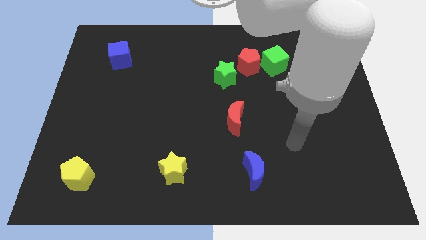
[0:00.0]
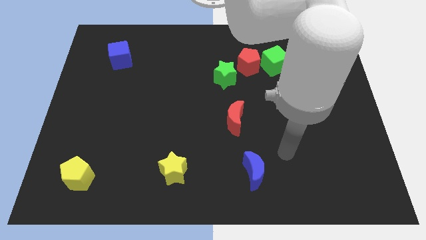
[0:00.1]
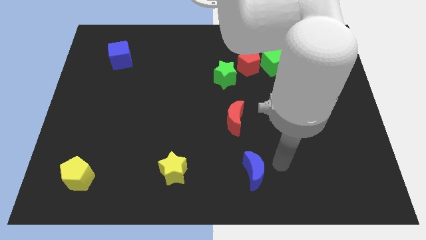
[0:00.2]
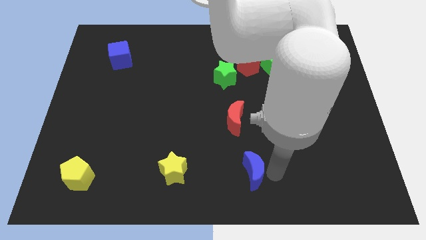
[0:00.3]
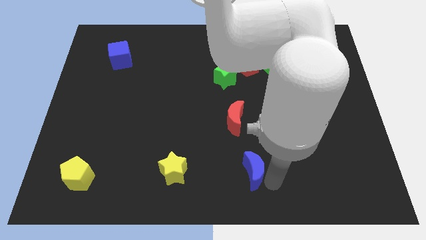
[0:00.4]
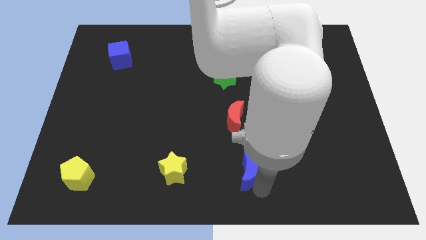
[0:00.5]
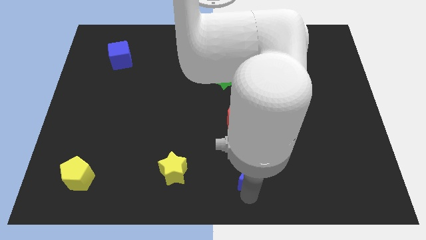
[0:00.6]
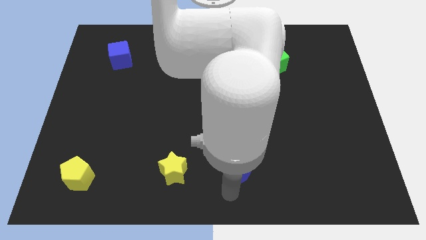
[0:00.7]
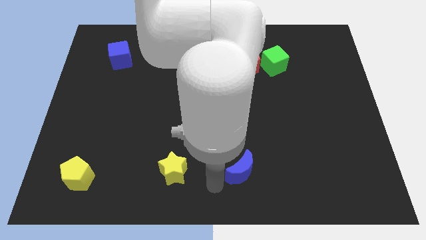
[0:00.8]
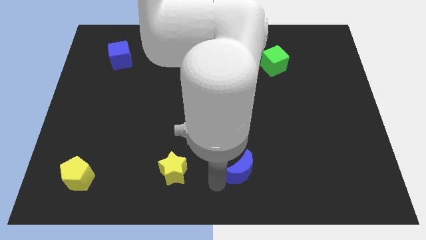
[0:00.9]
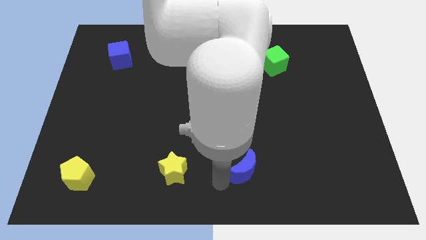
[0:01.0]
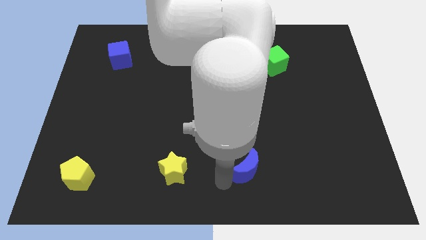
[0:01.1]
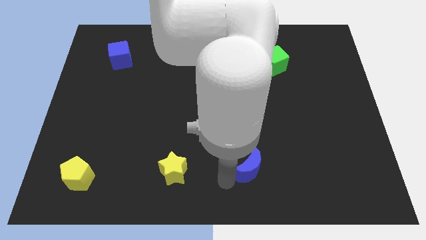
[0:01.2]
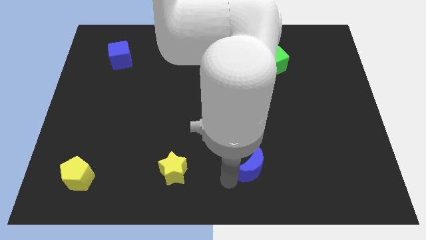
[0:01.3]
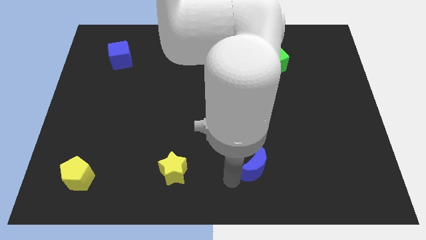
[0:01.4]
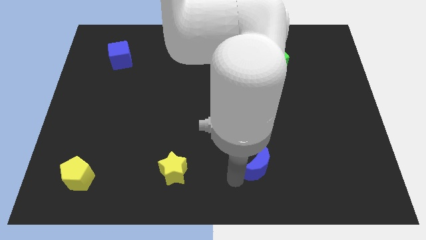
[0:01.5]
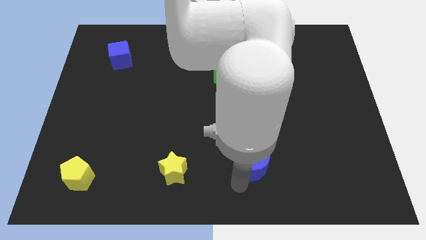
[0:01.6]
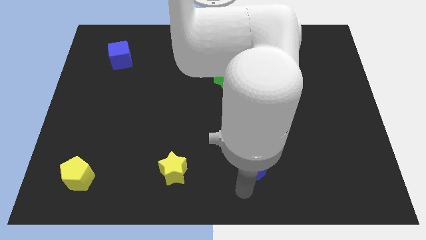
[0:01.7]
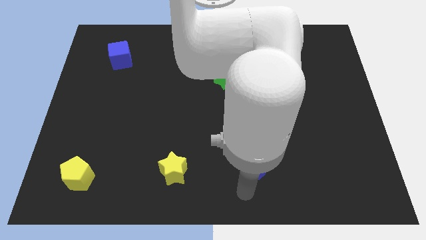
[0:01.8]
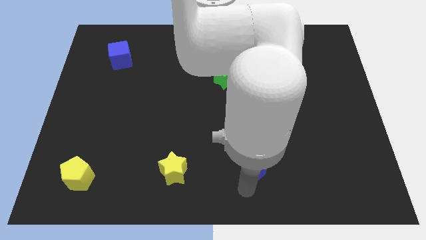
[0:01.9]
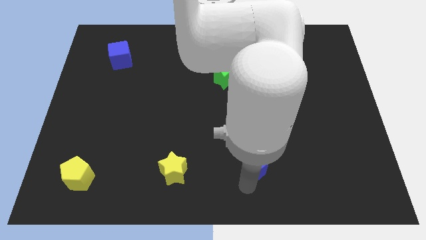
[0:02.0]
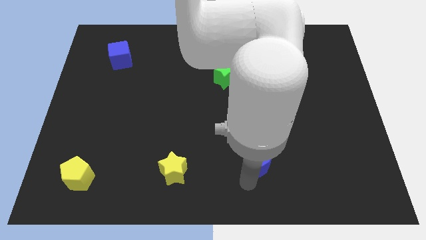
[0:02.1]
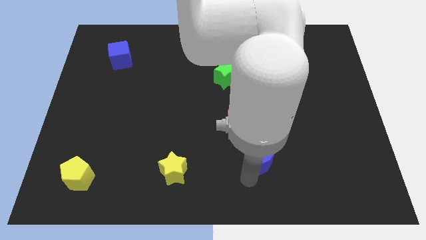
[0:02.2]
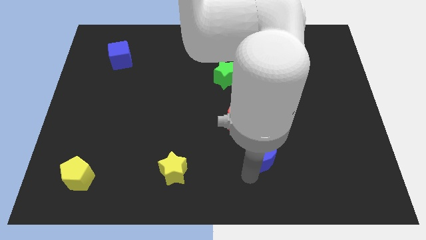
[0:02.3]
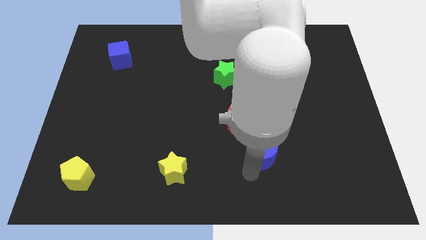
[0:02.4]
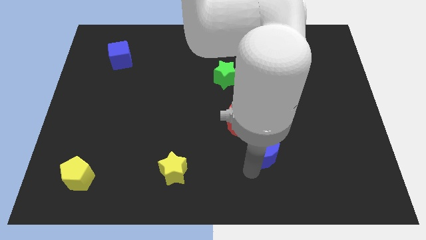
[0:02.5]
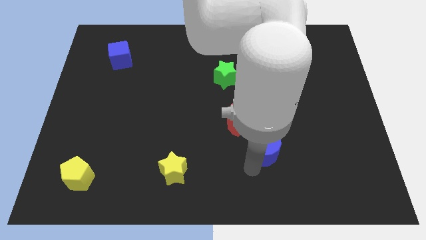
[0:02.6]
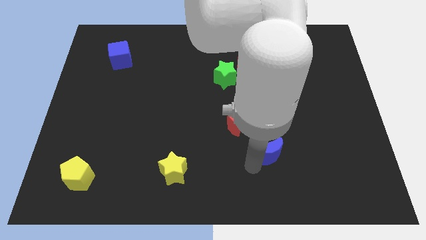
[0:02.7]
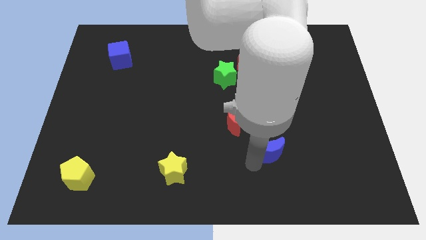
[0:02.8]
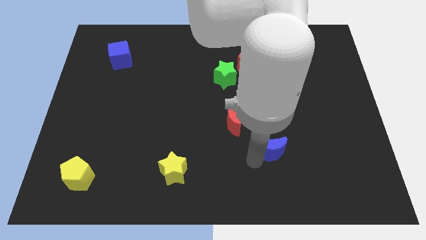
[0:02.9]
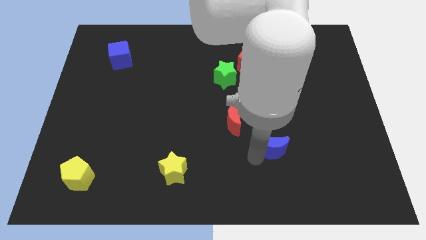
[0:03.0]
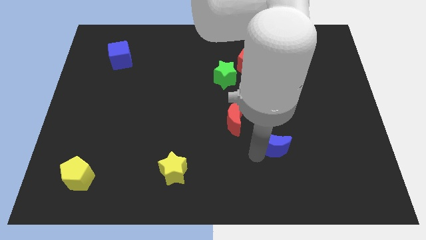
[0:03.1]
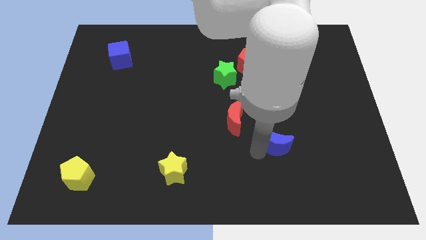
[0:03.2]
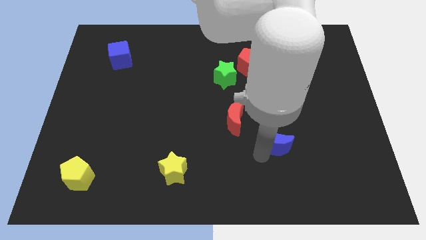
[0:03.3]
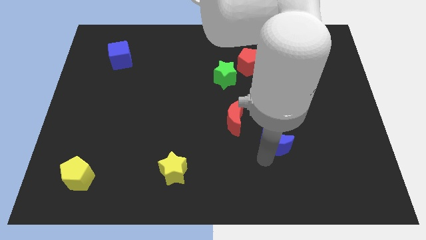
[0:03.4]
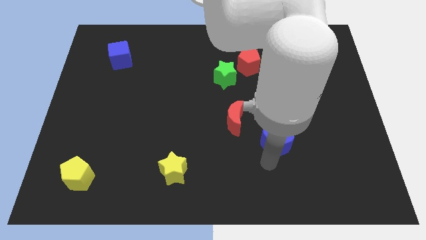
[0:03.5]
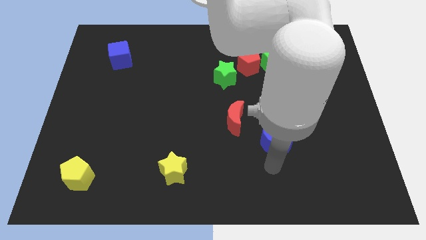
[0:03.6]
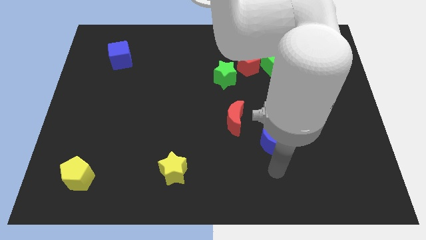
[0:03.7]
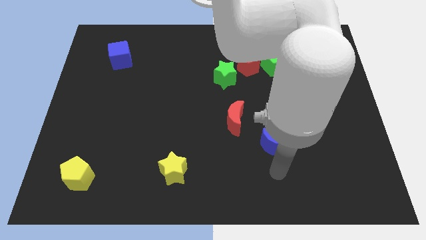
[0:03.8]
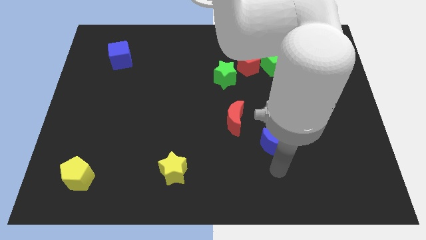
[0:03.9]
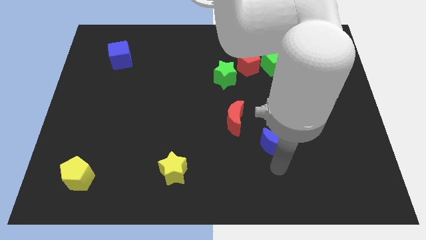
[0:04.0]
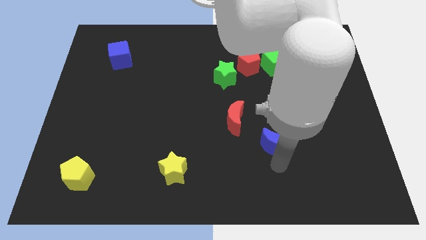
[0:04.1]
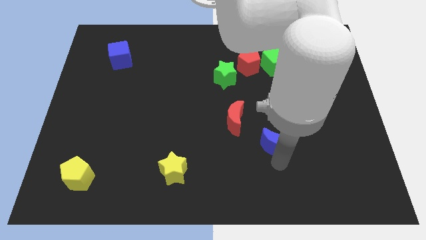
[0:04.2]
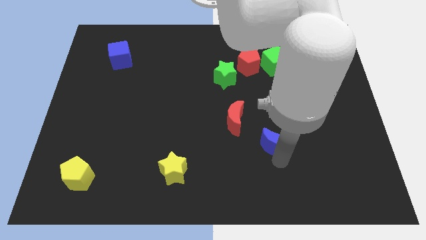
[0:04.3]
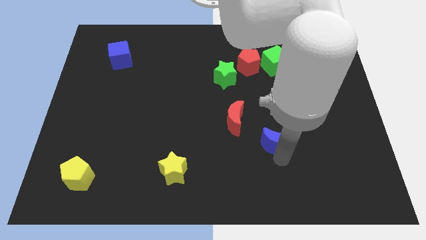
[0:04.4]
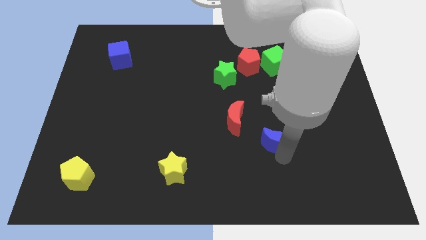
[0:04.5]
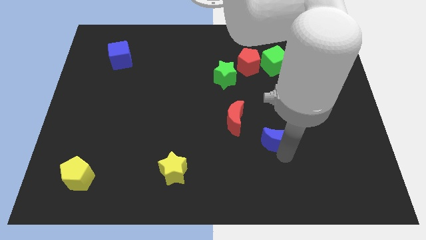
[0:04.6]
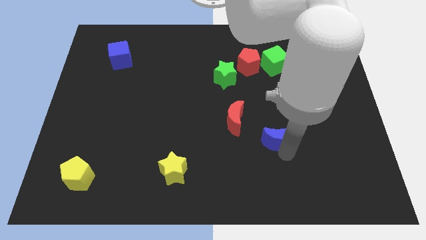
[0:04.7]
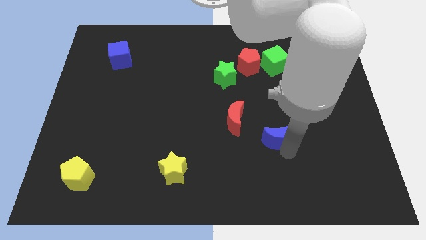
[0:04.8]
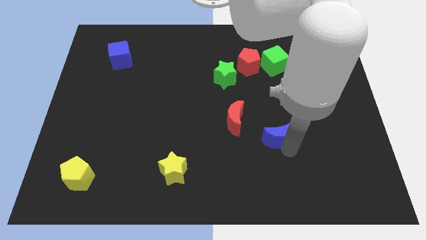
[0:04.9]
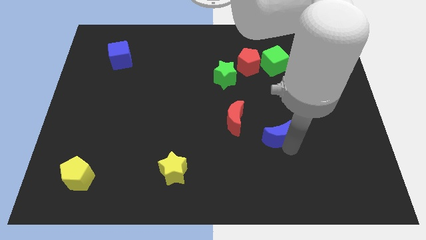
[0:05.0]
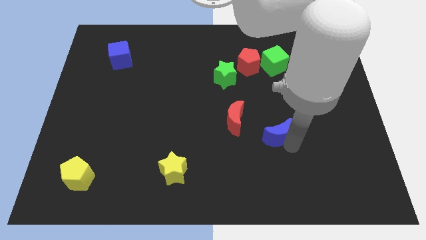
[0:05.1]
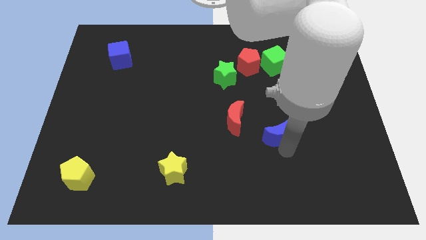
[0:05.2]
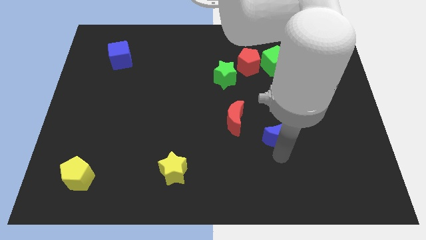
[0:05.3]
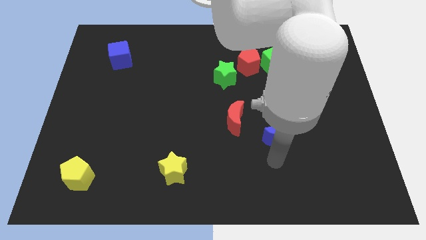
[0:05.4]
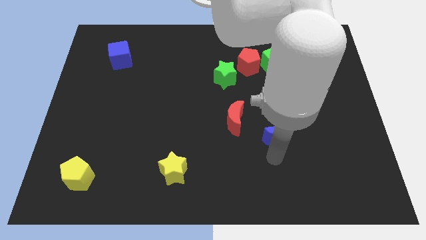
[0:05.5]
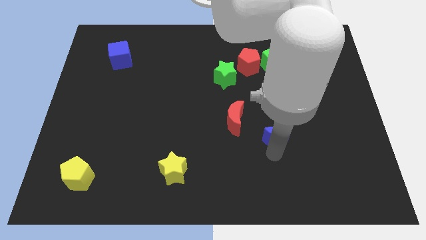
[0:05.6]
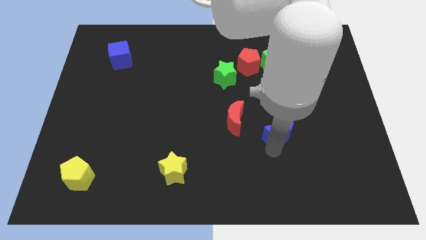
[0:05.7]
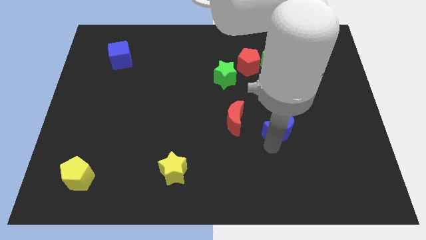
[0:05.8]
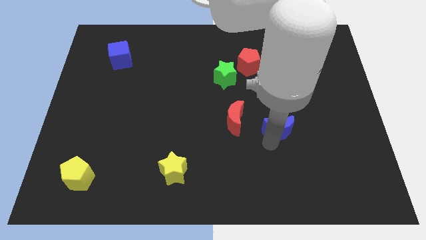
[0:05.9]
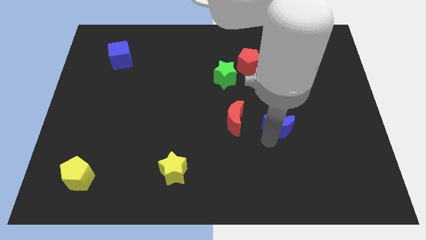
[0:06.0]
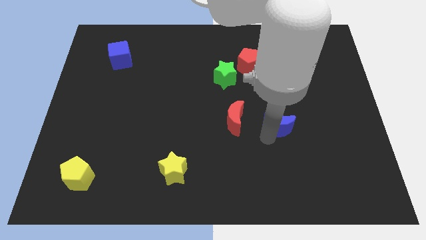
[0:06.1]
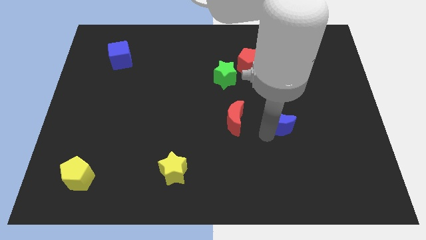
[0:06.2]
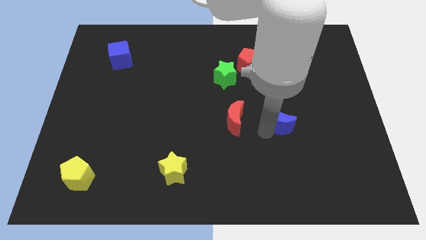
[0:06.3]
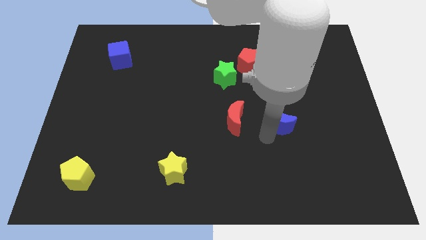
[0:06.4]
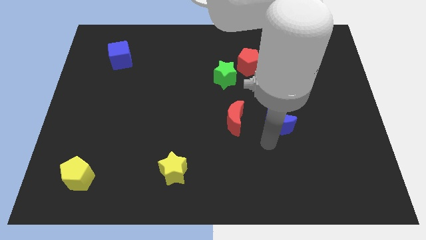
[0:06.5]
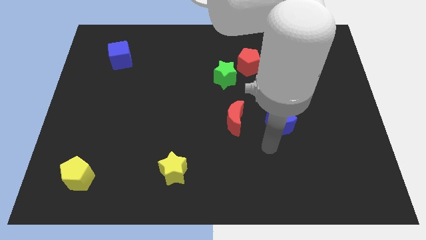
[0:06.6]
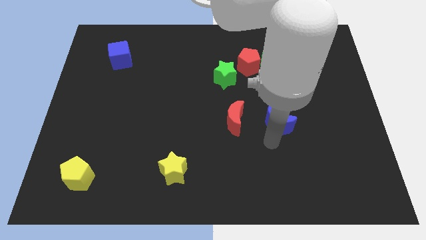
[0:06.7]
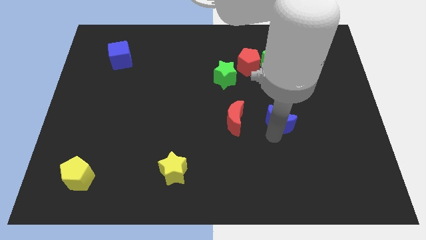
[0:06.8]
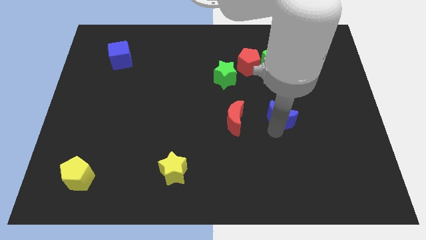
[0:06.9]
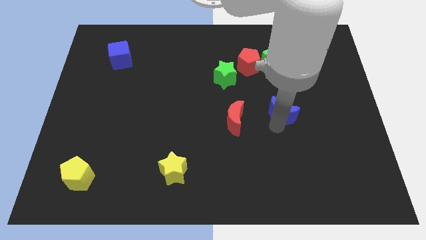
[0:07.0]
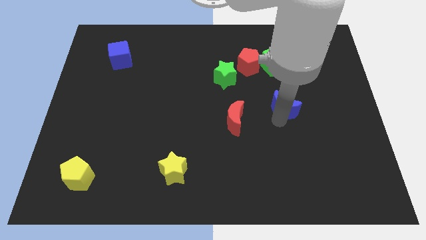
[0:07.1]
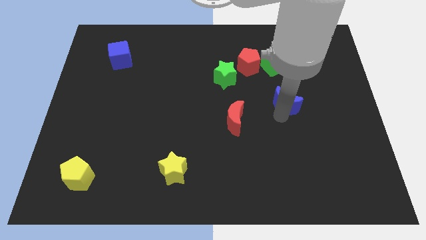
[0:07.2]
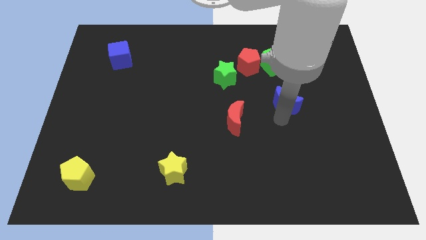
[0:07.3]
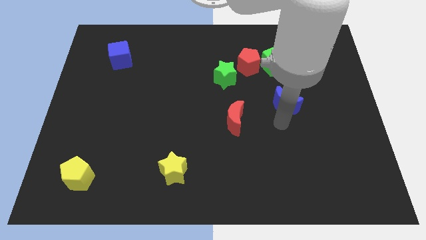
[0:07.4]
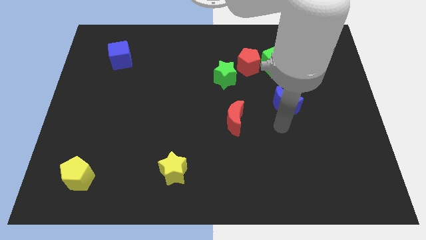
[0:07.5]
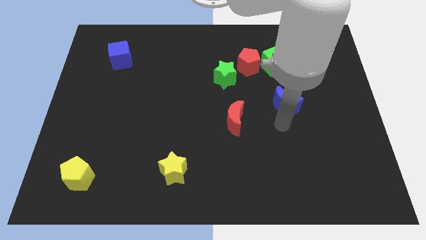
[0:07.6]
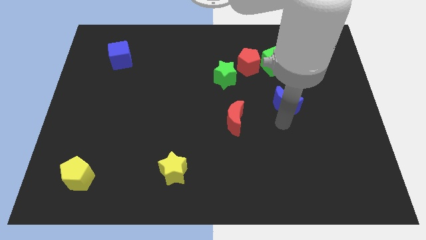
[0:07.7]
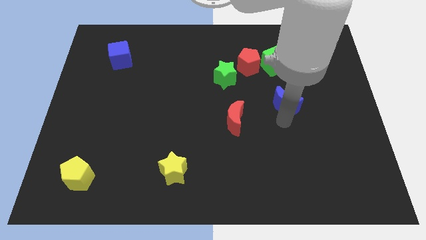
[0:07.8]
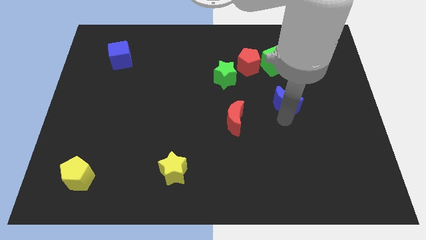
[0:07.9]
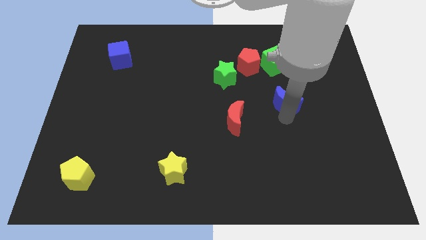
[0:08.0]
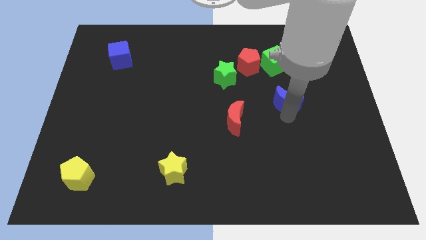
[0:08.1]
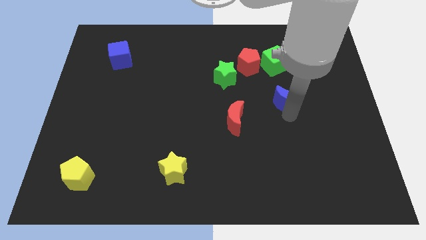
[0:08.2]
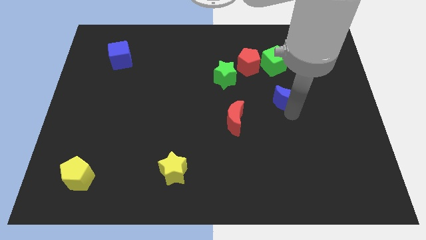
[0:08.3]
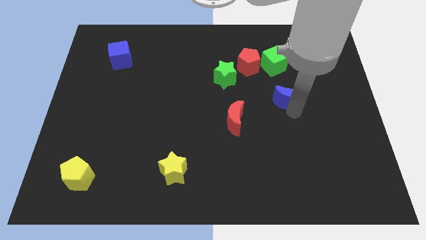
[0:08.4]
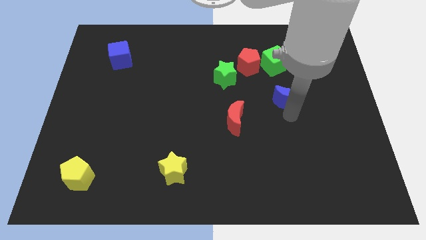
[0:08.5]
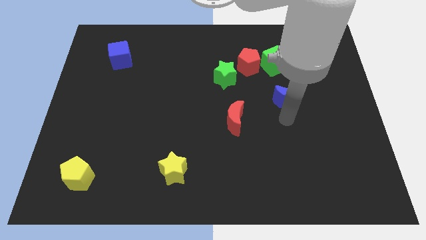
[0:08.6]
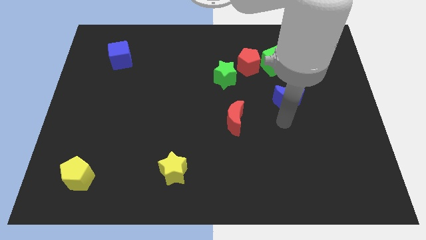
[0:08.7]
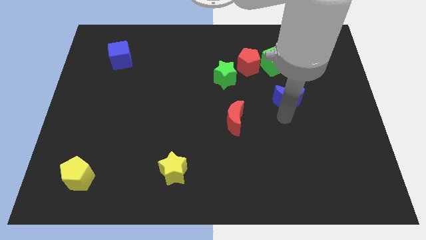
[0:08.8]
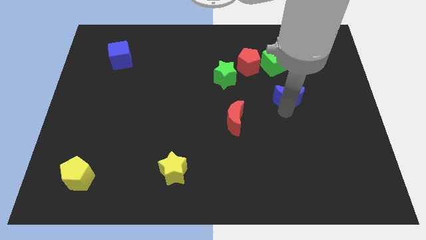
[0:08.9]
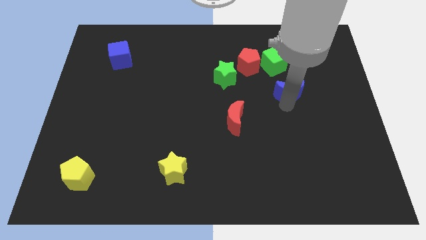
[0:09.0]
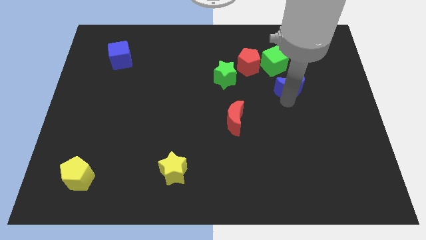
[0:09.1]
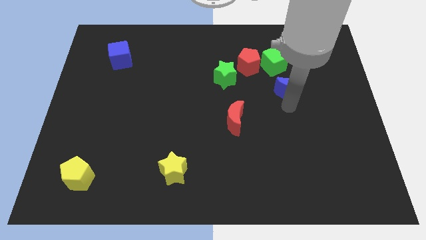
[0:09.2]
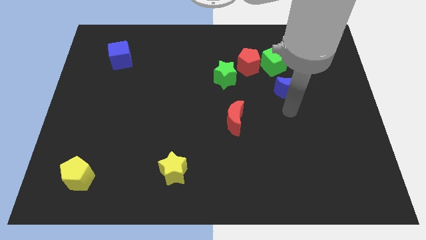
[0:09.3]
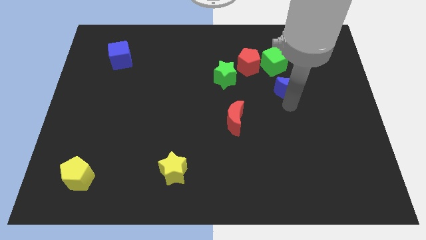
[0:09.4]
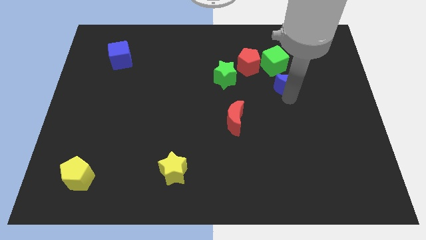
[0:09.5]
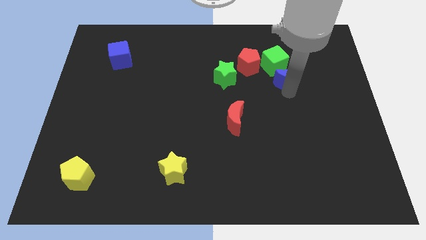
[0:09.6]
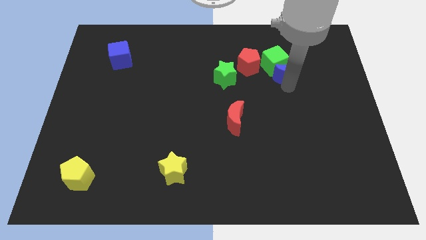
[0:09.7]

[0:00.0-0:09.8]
slide the blue moon right of the red pentagon
